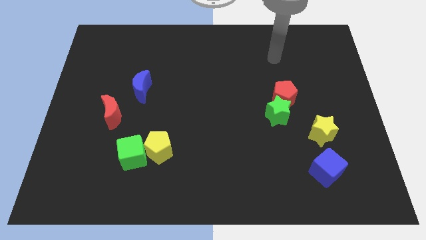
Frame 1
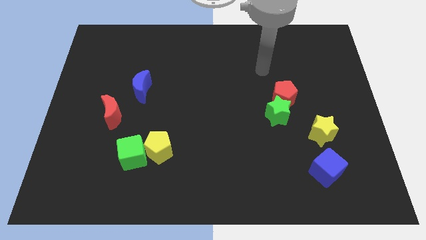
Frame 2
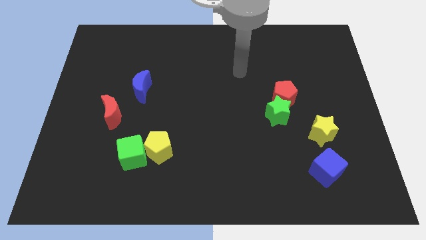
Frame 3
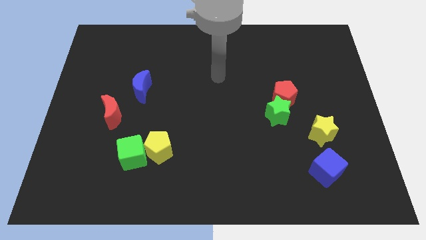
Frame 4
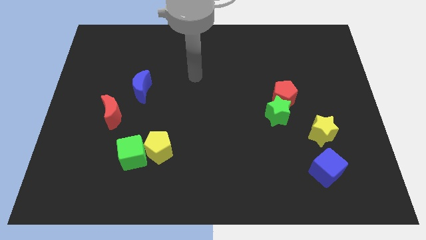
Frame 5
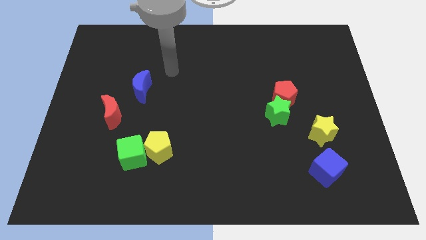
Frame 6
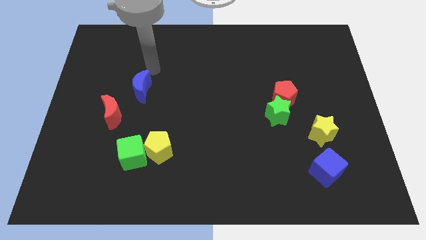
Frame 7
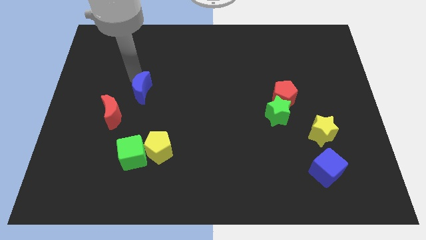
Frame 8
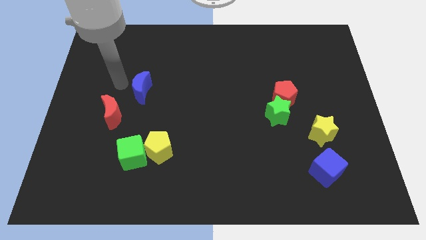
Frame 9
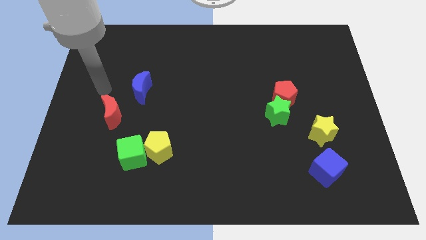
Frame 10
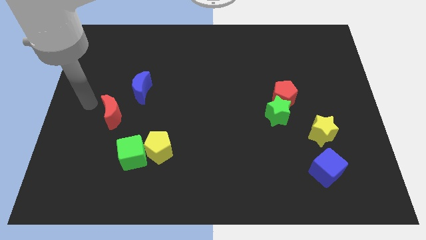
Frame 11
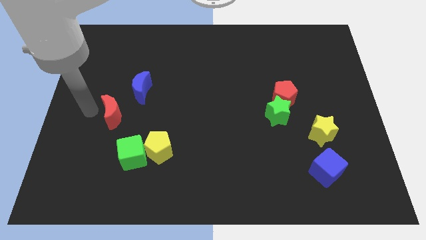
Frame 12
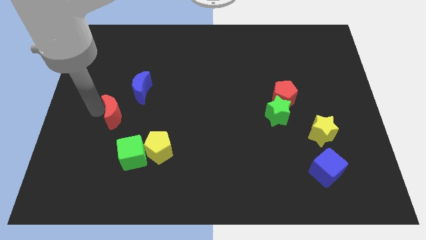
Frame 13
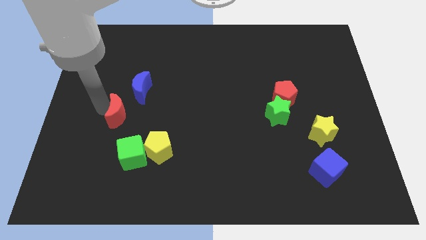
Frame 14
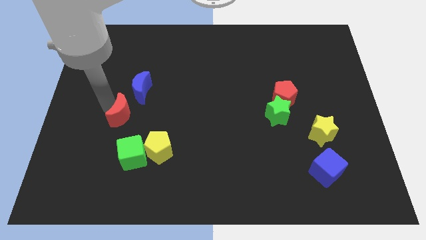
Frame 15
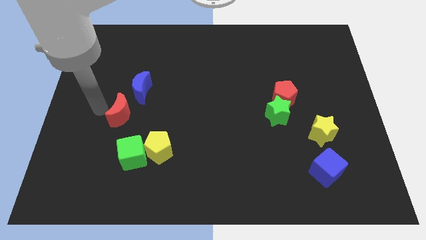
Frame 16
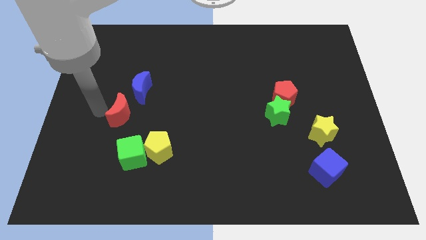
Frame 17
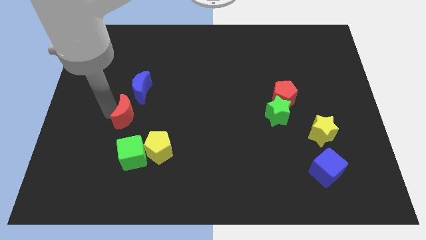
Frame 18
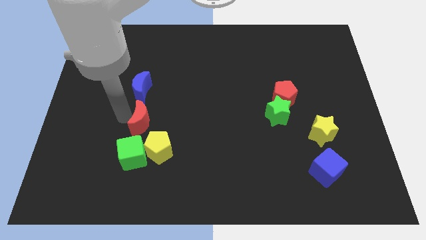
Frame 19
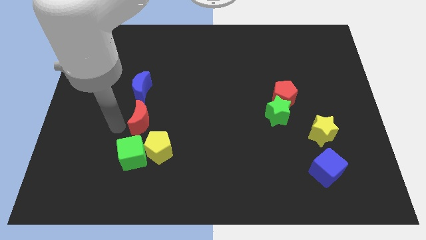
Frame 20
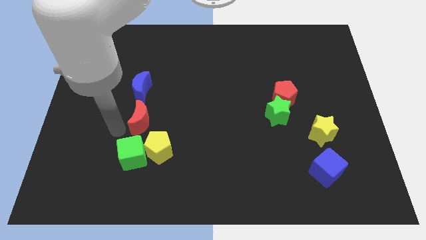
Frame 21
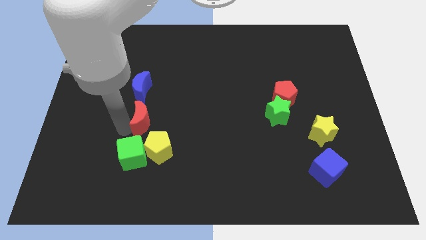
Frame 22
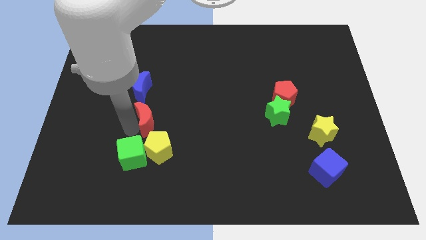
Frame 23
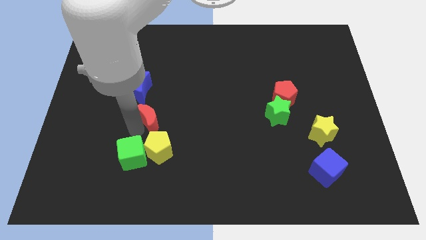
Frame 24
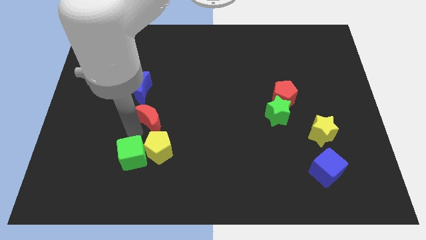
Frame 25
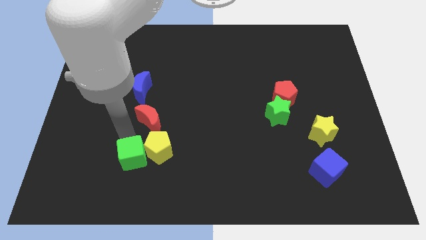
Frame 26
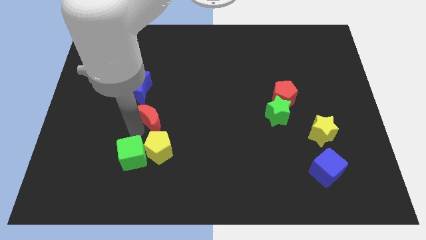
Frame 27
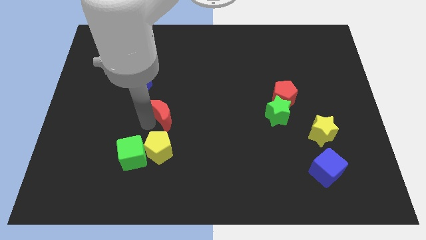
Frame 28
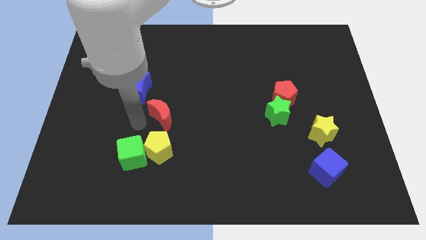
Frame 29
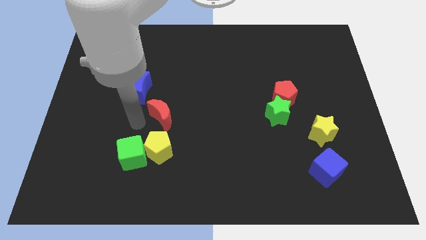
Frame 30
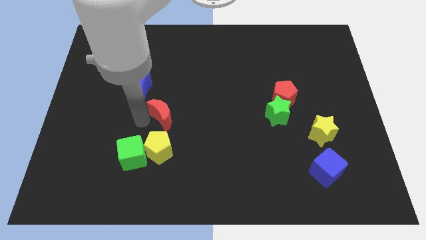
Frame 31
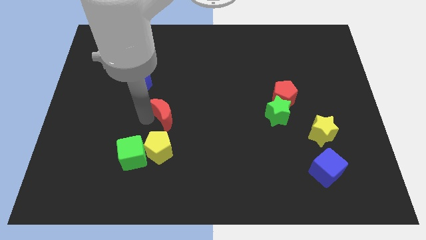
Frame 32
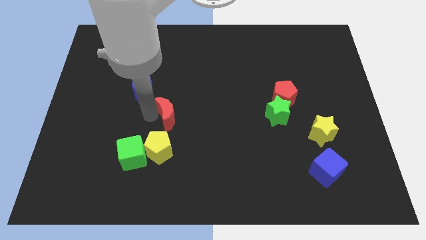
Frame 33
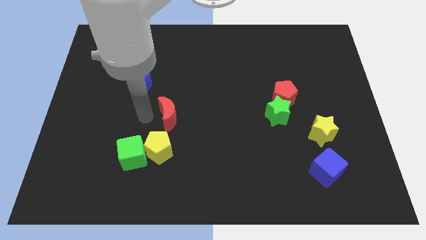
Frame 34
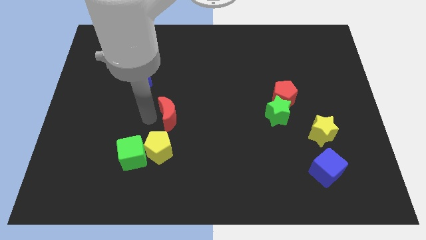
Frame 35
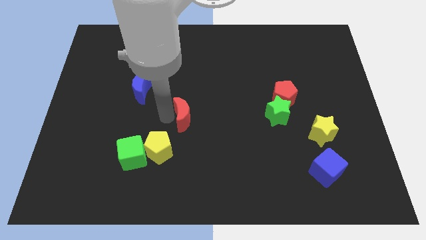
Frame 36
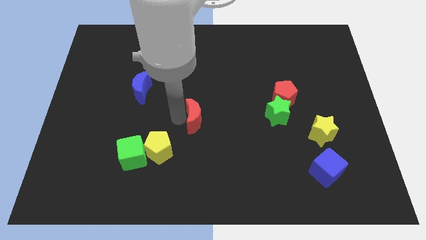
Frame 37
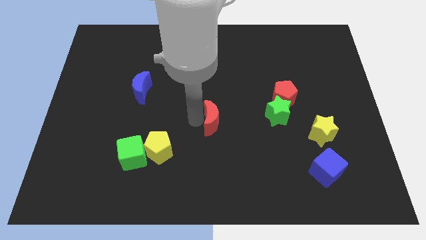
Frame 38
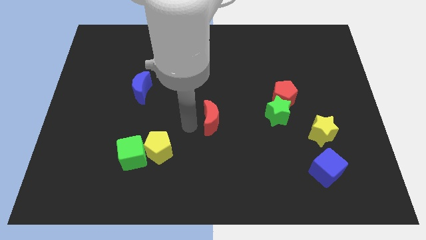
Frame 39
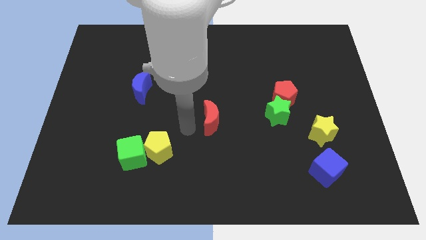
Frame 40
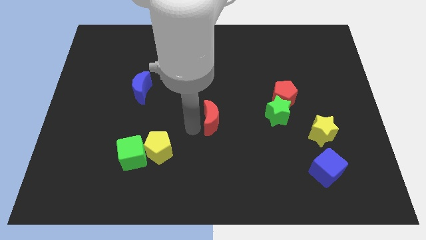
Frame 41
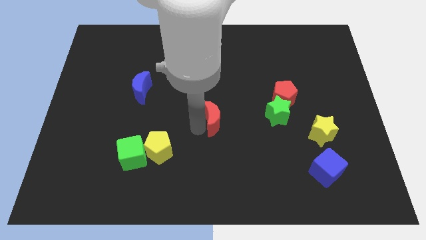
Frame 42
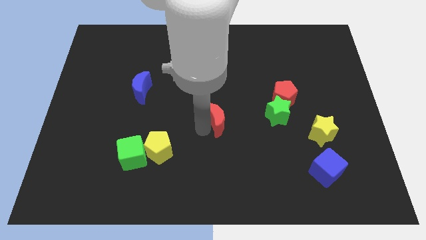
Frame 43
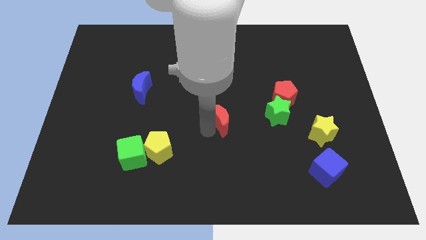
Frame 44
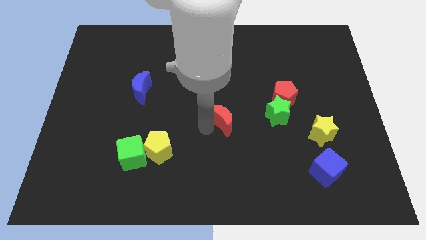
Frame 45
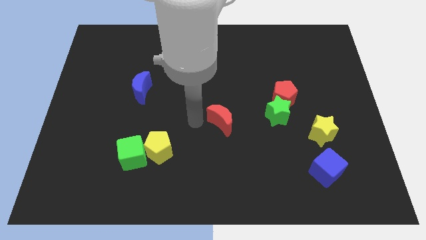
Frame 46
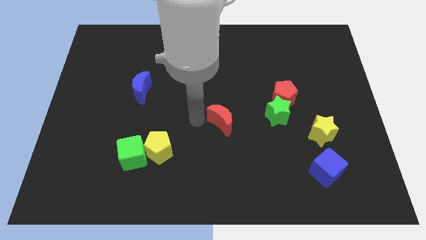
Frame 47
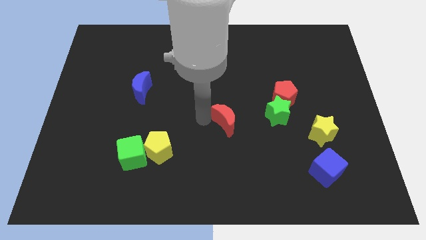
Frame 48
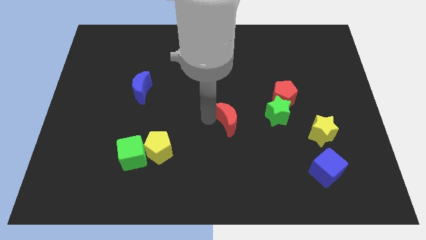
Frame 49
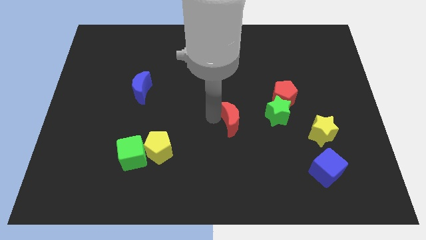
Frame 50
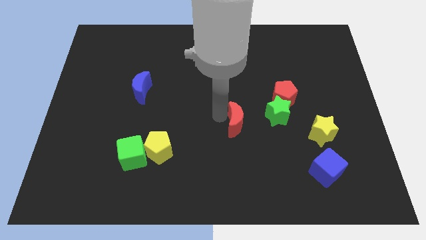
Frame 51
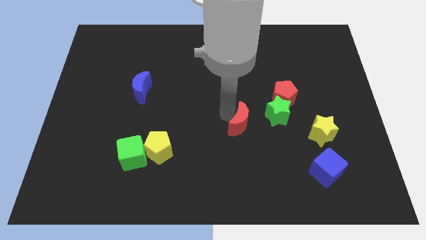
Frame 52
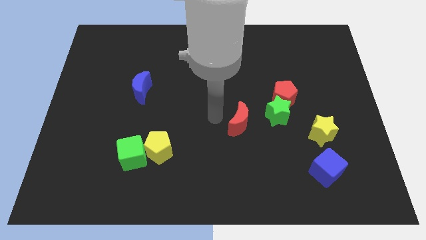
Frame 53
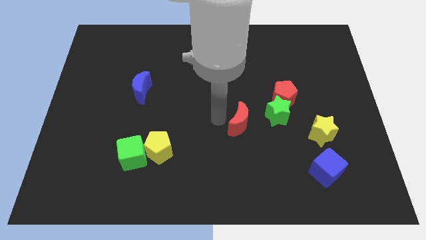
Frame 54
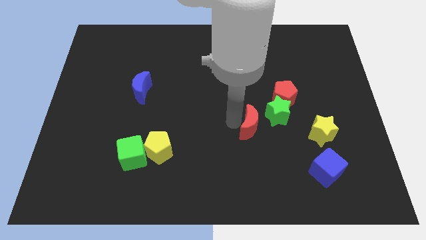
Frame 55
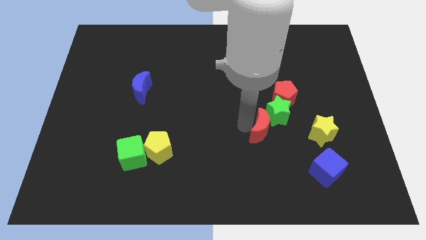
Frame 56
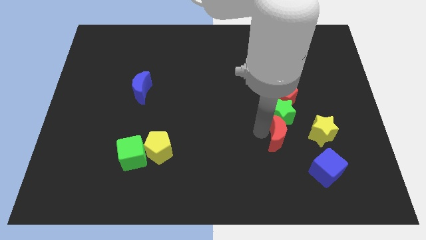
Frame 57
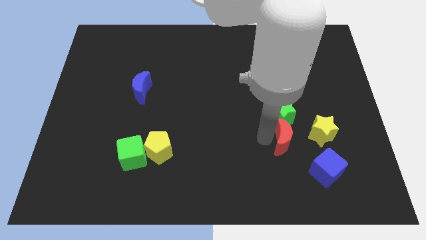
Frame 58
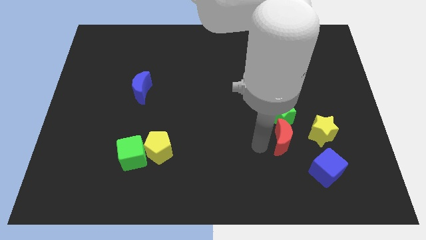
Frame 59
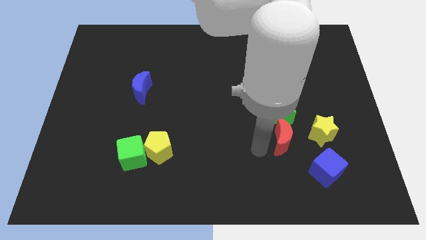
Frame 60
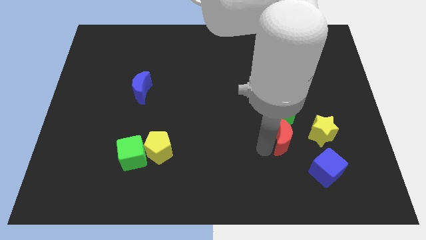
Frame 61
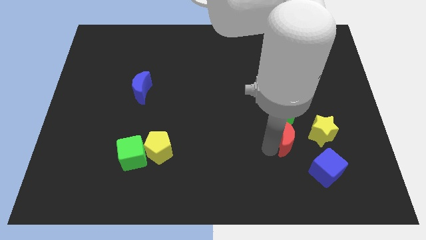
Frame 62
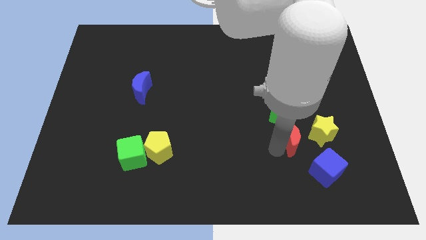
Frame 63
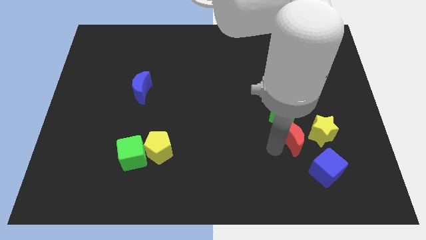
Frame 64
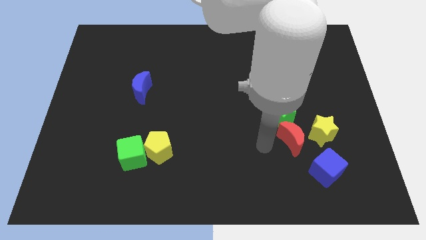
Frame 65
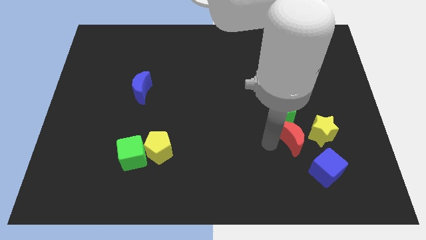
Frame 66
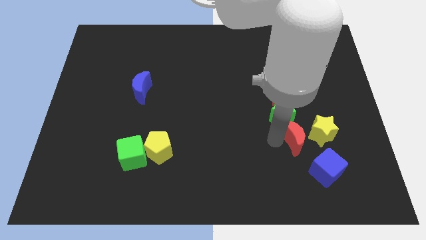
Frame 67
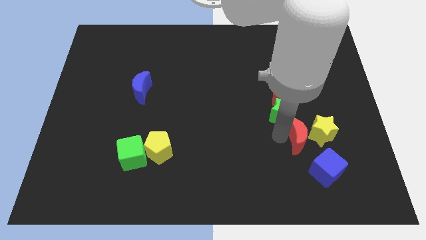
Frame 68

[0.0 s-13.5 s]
slide the red moon close to the yellow star

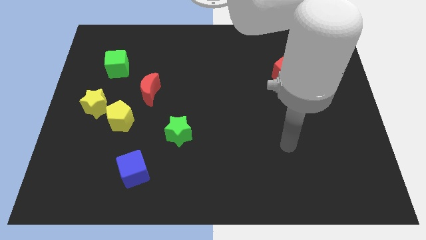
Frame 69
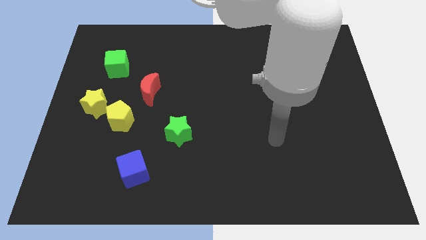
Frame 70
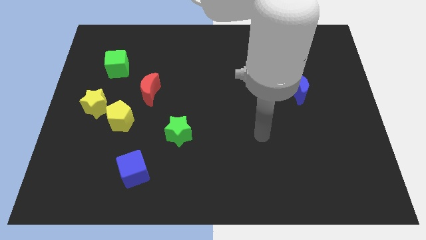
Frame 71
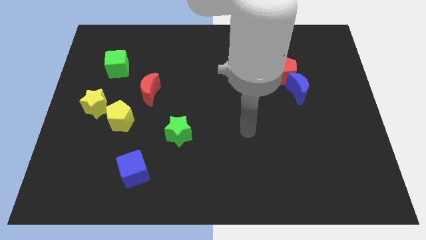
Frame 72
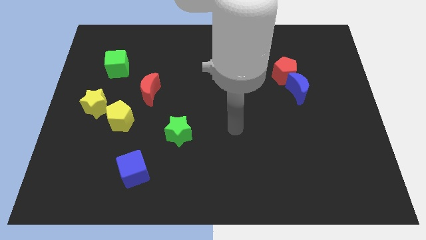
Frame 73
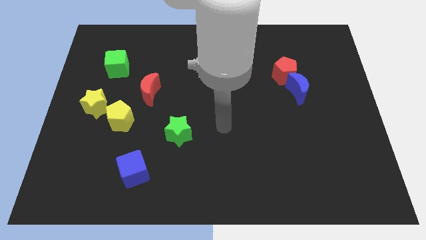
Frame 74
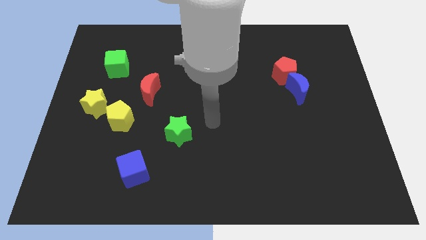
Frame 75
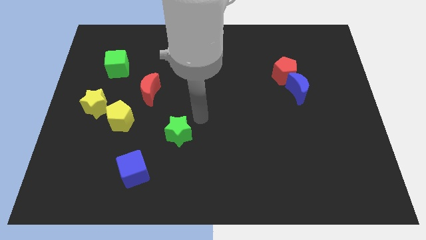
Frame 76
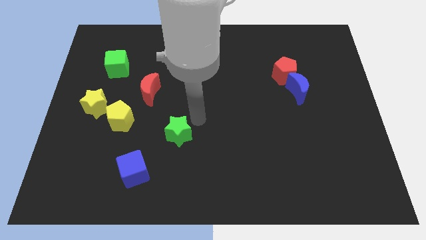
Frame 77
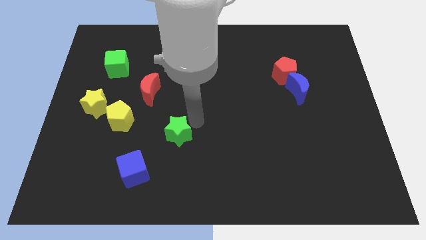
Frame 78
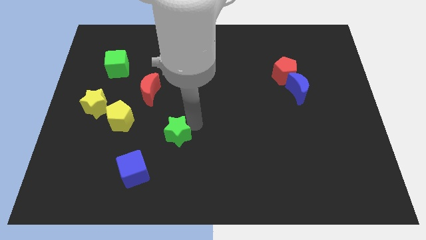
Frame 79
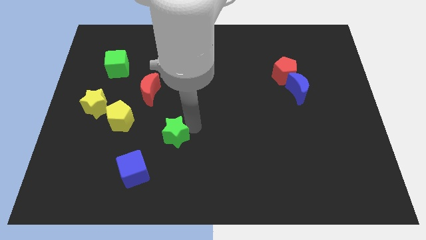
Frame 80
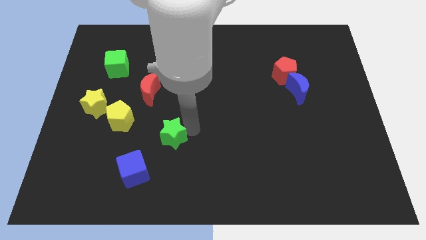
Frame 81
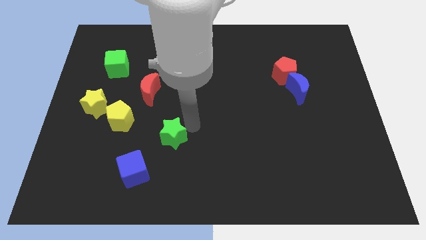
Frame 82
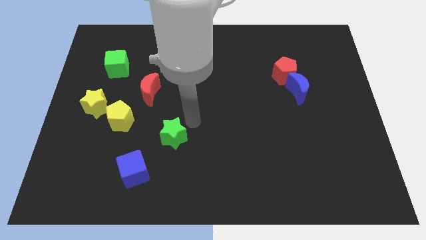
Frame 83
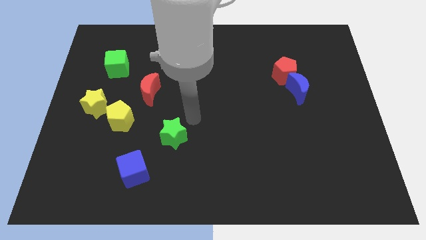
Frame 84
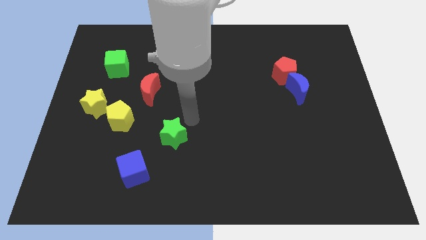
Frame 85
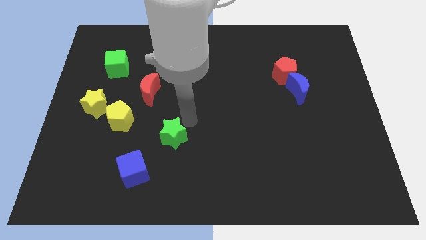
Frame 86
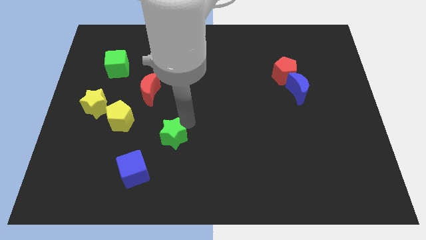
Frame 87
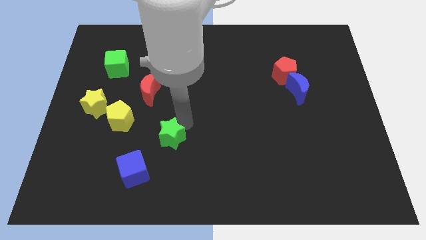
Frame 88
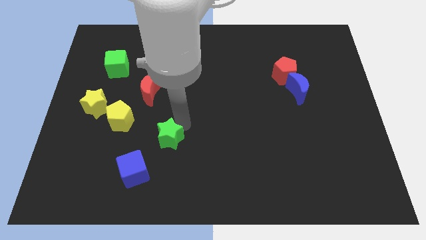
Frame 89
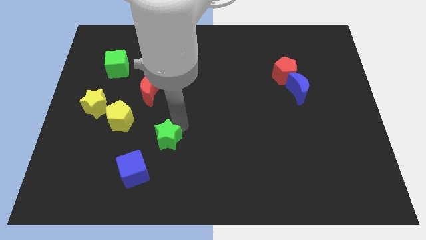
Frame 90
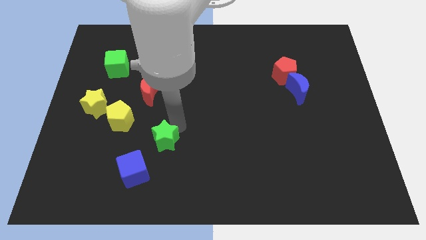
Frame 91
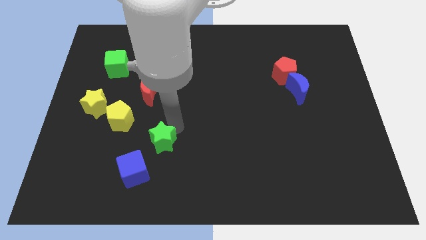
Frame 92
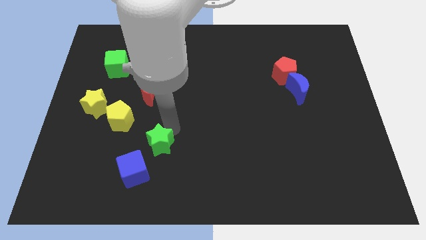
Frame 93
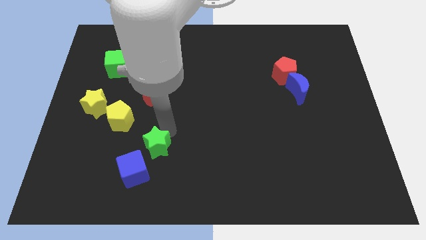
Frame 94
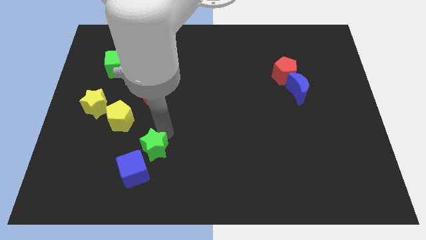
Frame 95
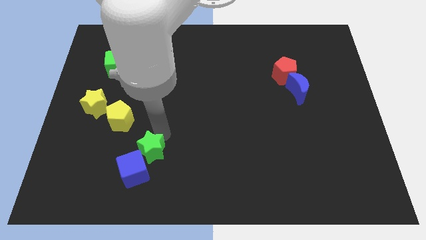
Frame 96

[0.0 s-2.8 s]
move the green star next to the blue cube
